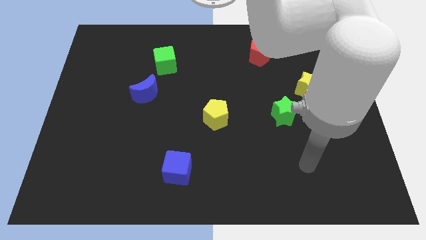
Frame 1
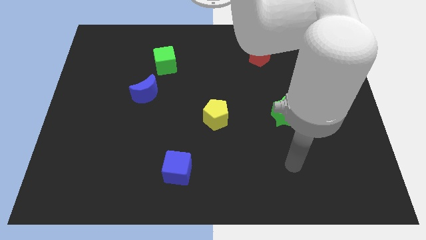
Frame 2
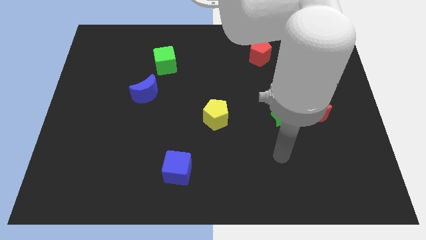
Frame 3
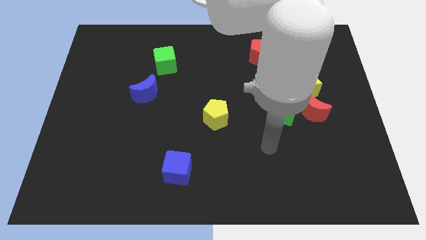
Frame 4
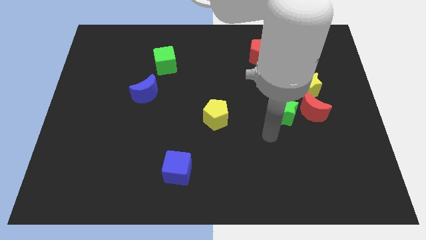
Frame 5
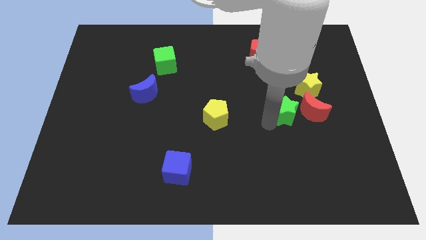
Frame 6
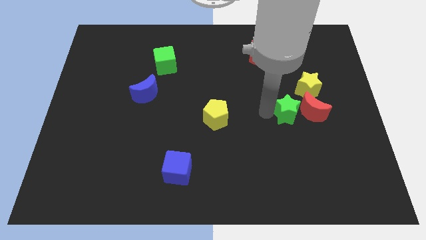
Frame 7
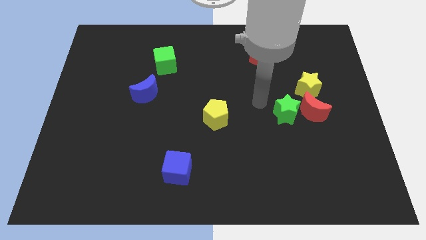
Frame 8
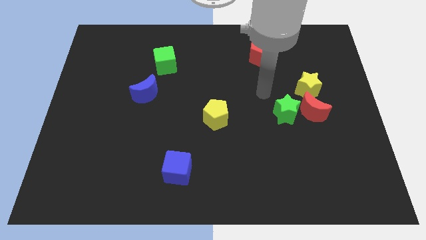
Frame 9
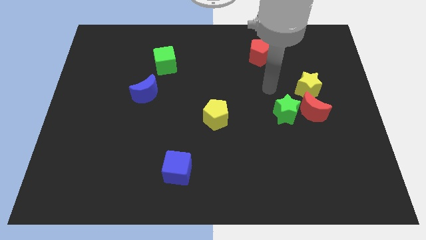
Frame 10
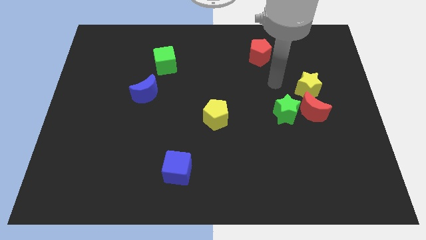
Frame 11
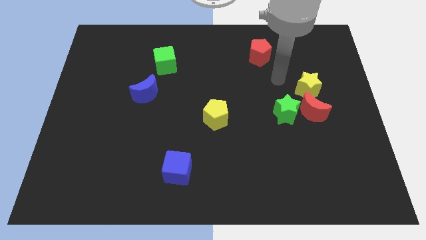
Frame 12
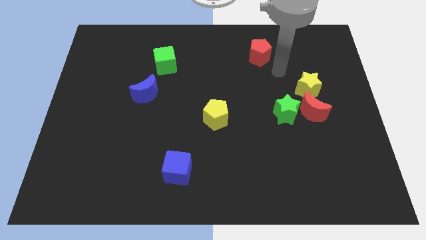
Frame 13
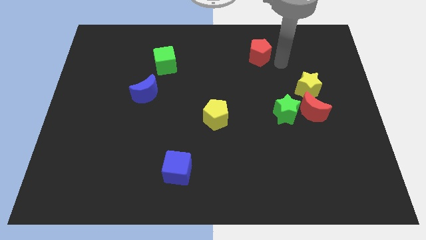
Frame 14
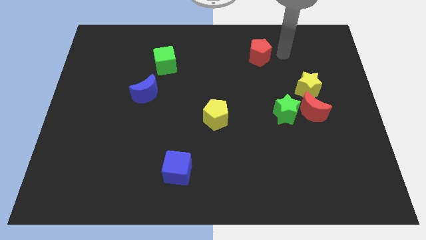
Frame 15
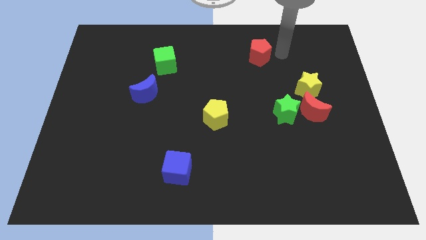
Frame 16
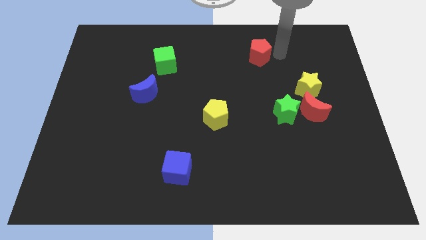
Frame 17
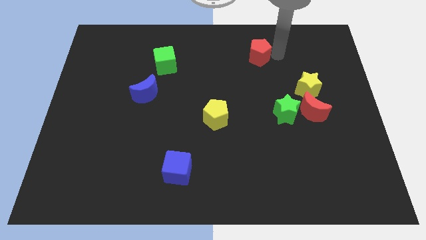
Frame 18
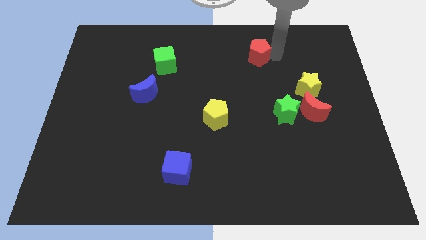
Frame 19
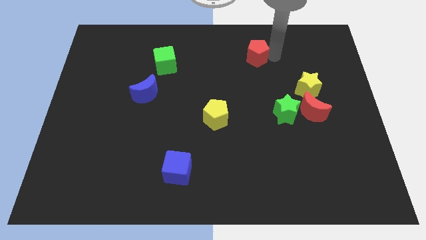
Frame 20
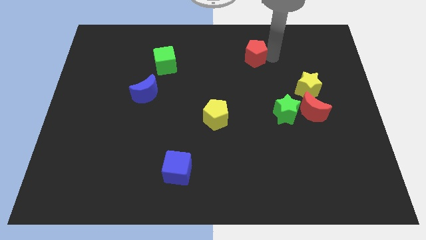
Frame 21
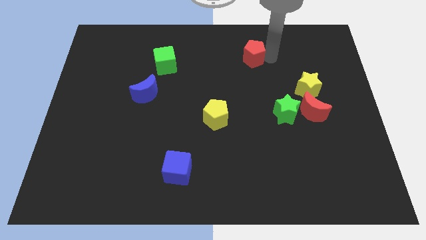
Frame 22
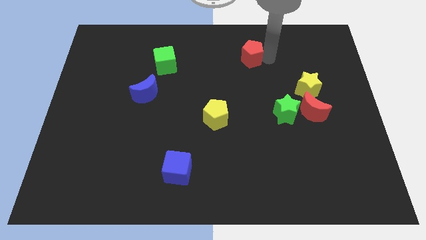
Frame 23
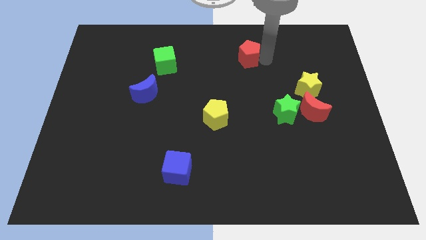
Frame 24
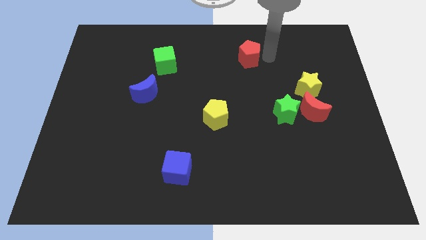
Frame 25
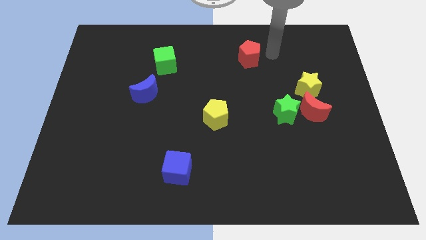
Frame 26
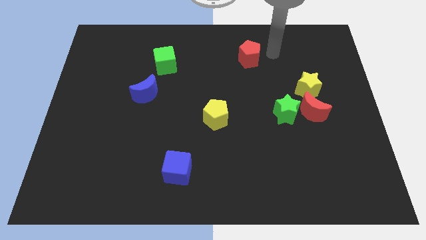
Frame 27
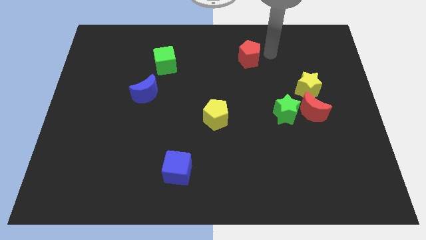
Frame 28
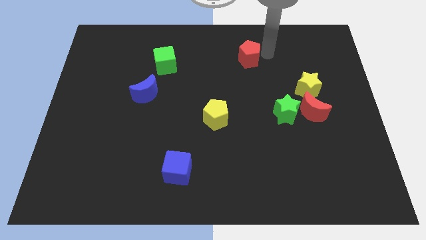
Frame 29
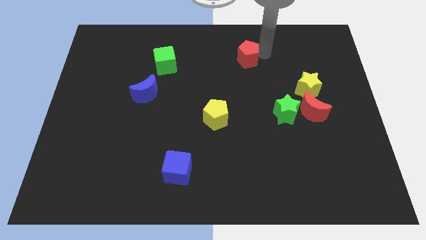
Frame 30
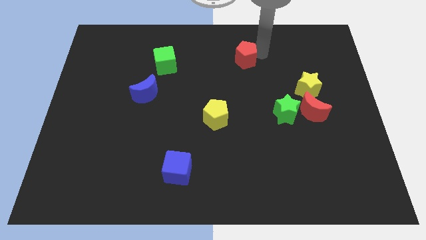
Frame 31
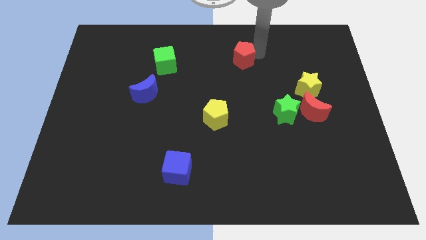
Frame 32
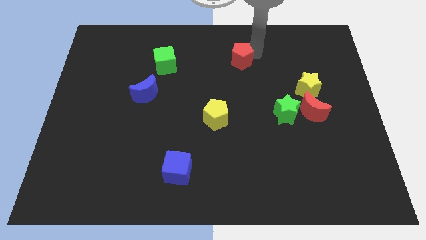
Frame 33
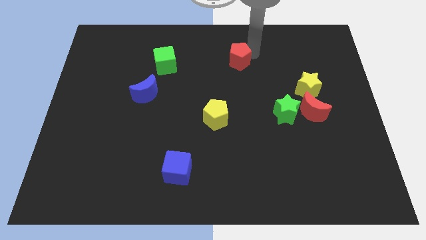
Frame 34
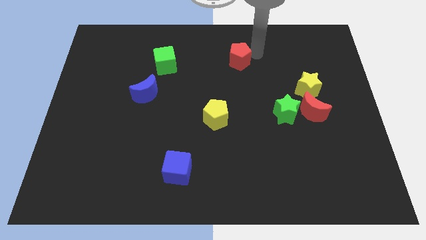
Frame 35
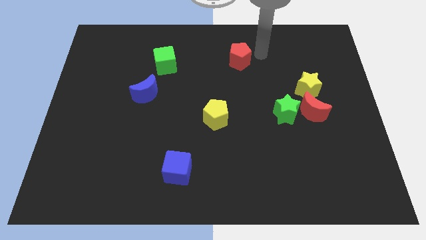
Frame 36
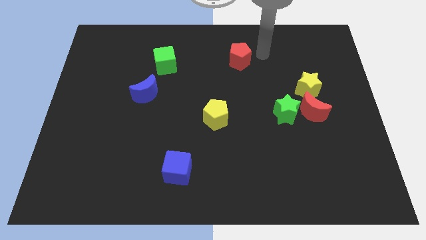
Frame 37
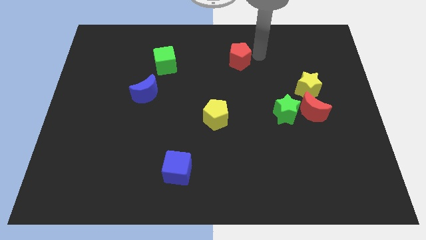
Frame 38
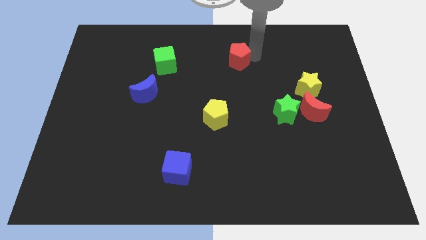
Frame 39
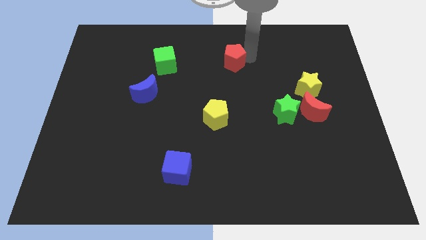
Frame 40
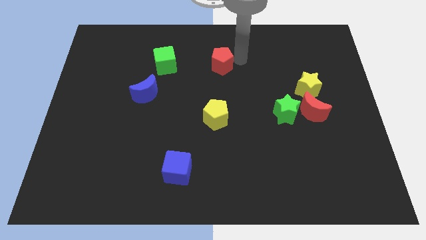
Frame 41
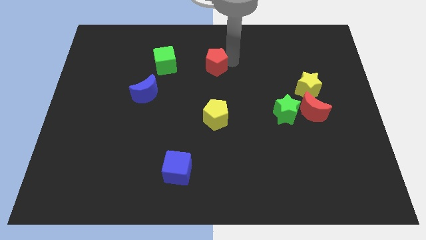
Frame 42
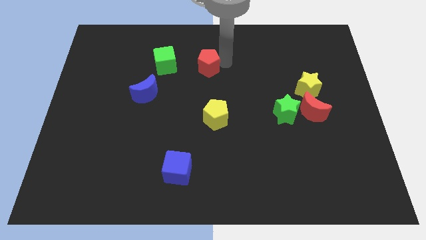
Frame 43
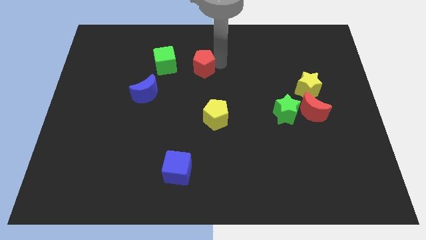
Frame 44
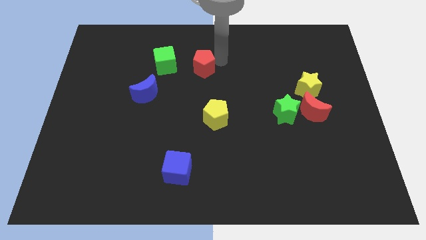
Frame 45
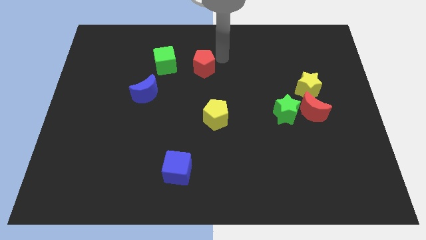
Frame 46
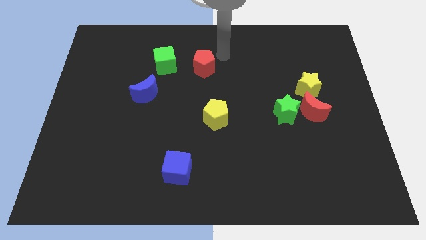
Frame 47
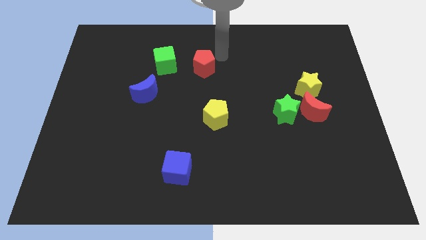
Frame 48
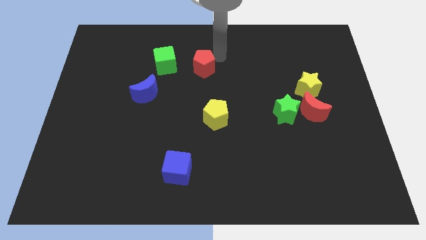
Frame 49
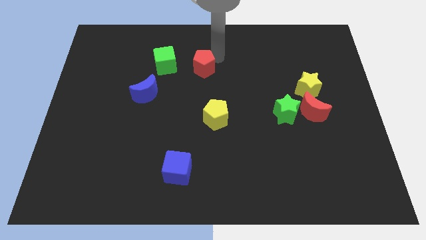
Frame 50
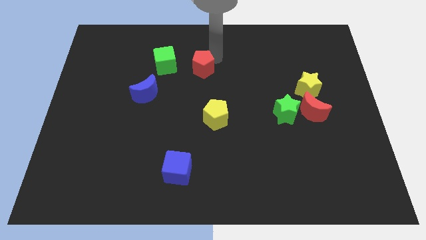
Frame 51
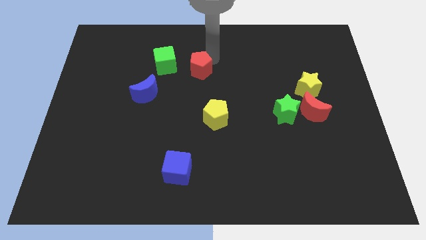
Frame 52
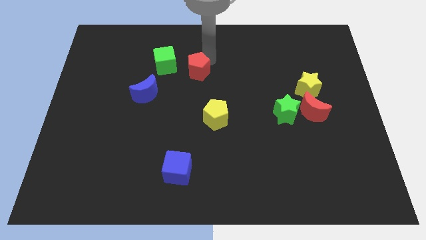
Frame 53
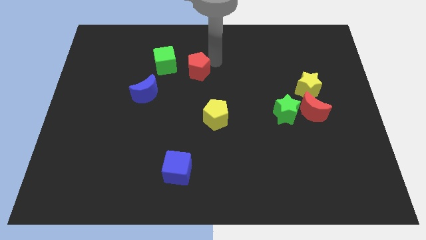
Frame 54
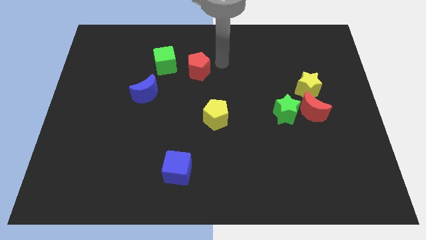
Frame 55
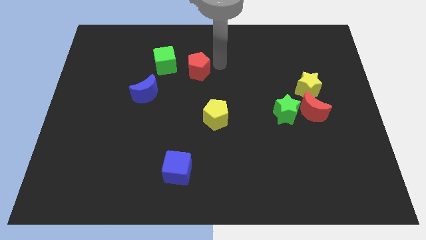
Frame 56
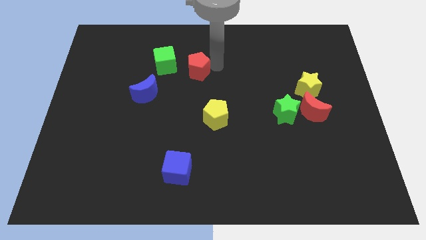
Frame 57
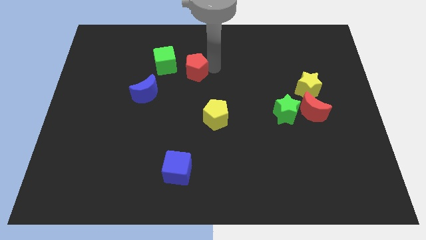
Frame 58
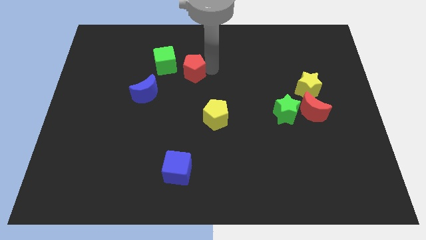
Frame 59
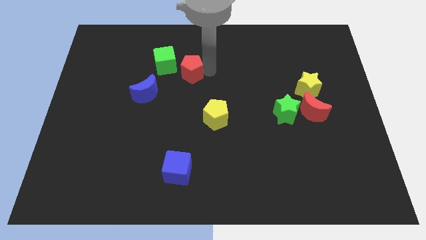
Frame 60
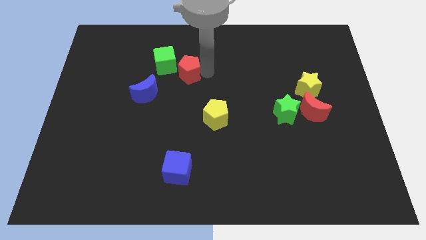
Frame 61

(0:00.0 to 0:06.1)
put the red pentagon to the top right of the blue moon
